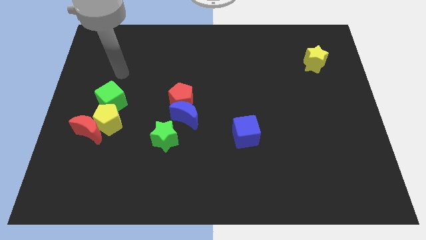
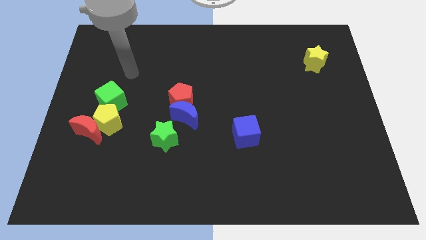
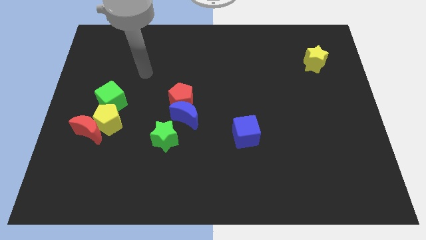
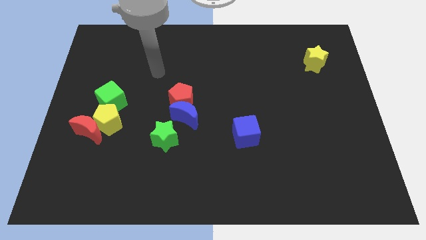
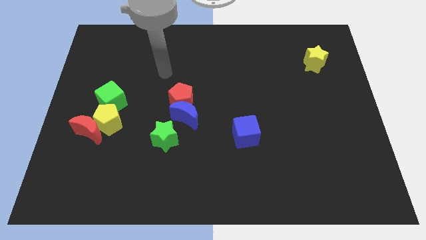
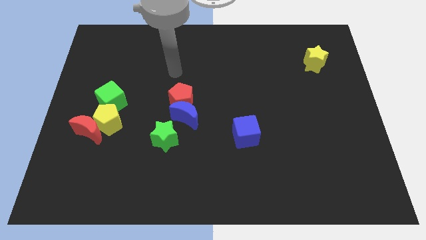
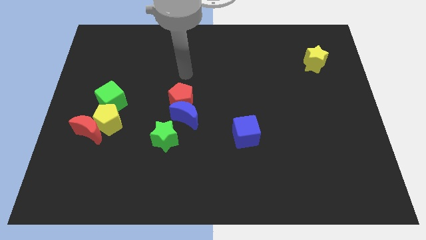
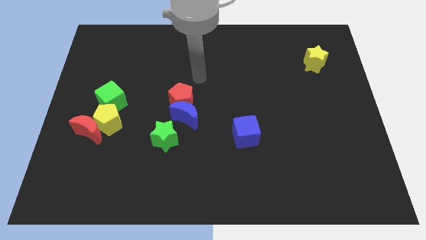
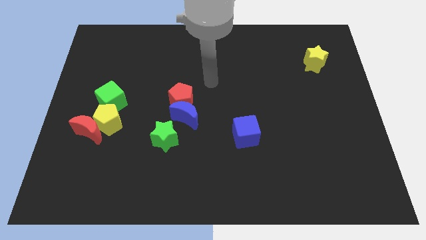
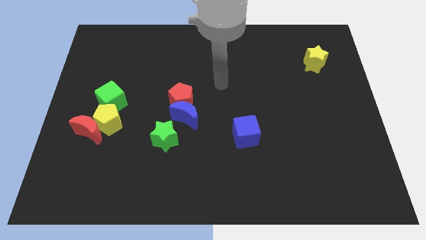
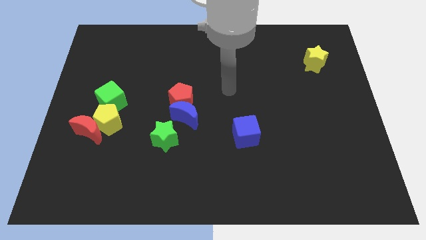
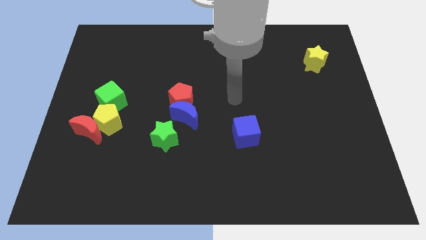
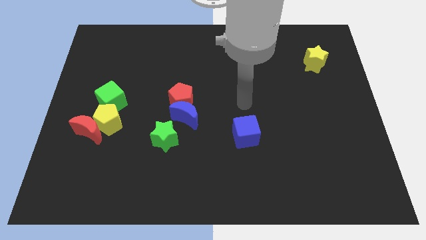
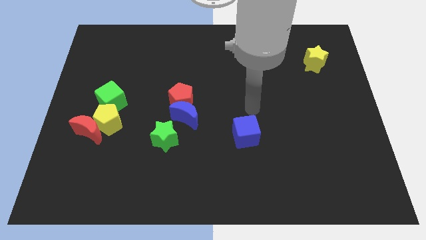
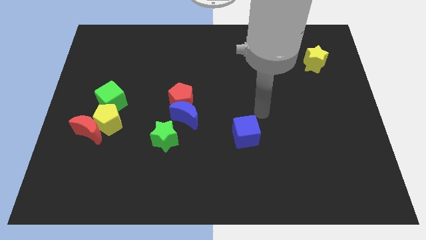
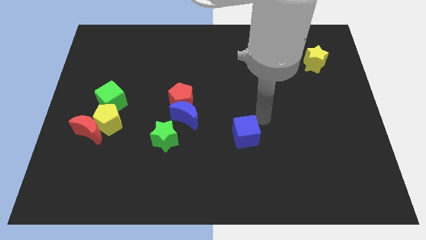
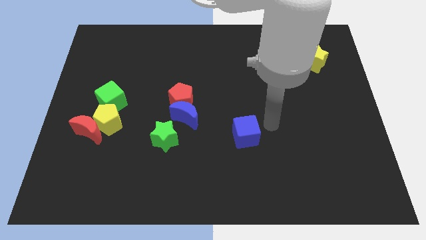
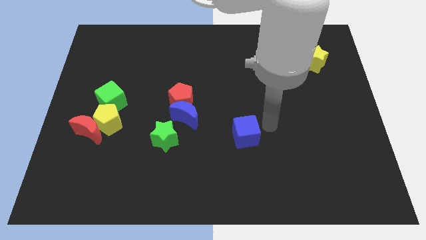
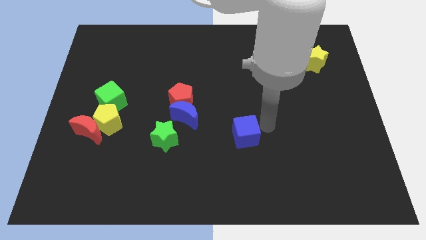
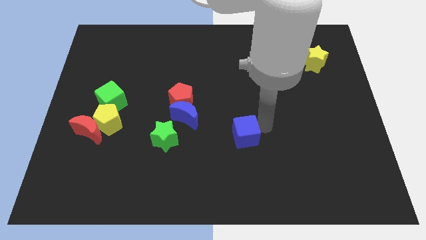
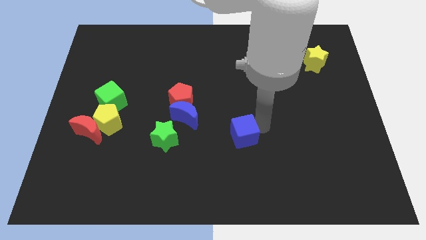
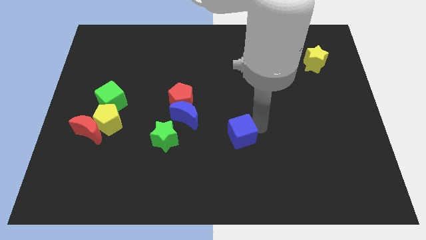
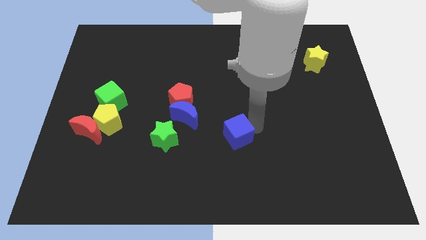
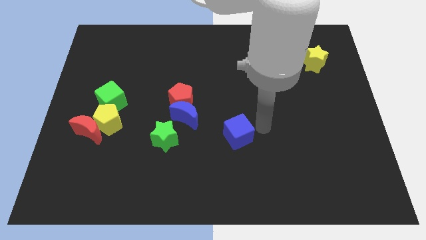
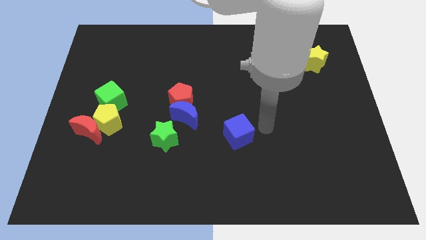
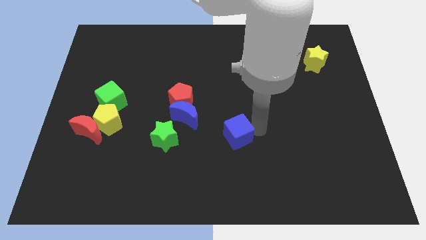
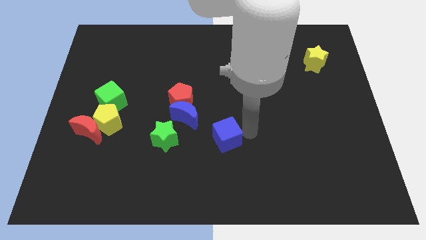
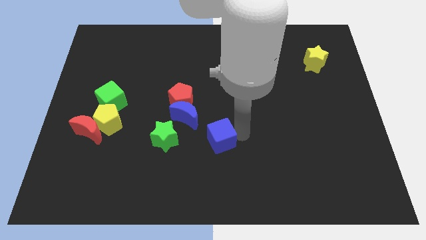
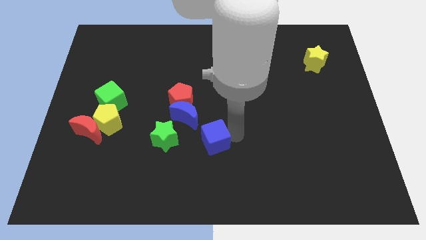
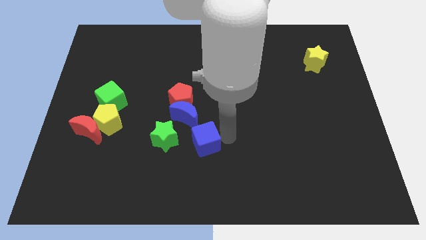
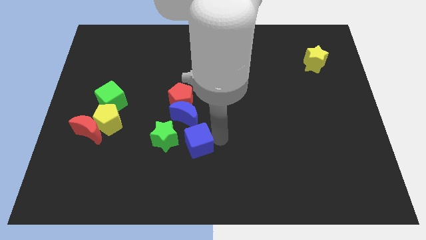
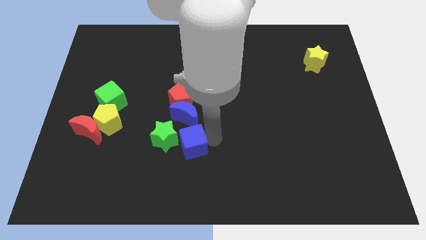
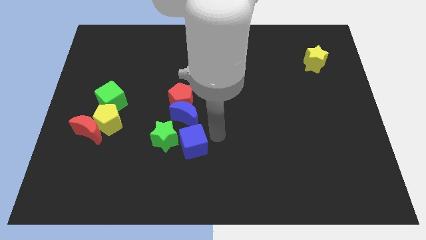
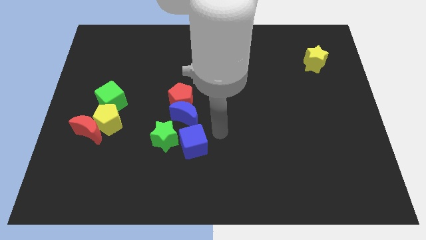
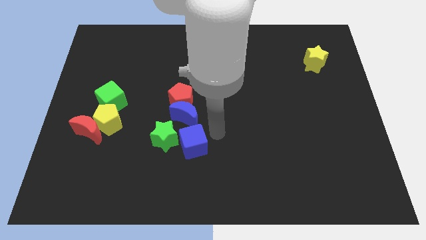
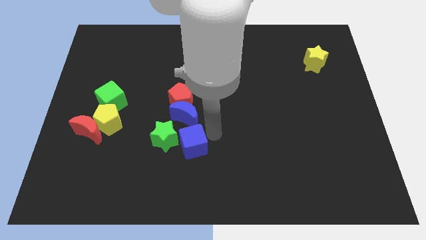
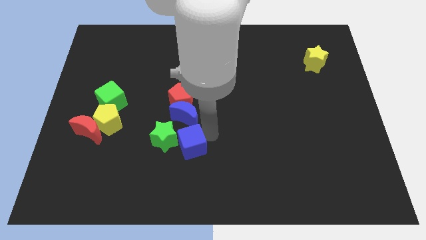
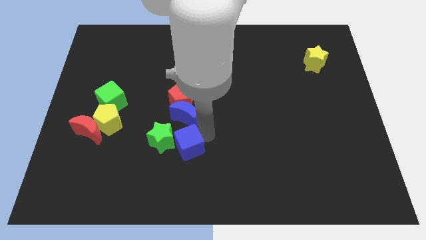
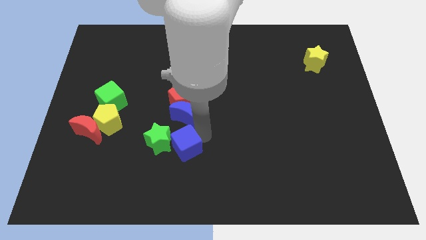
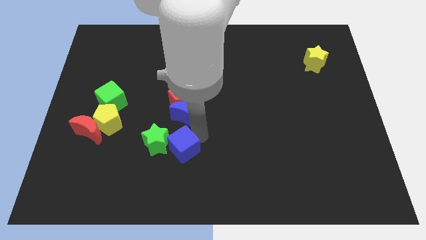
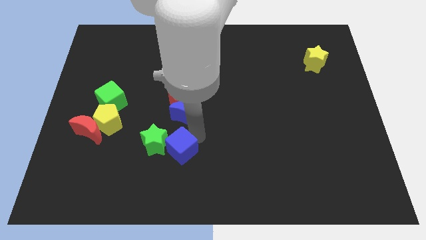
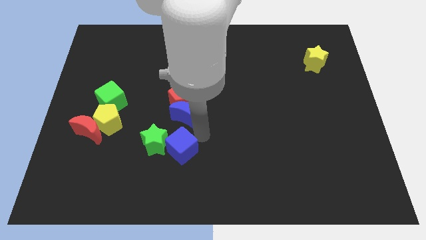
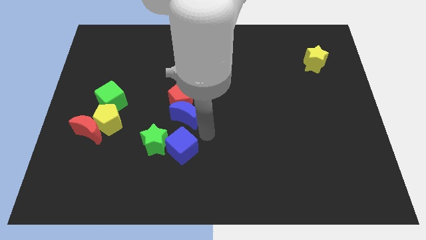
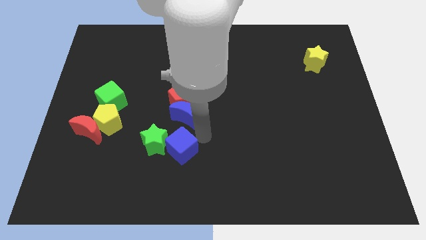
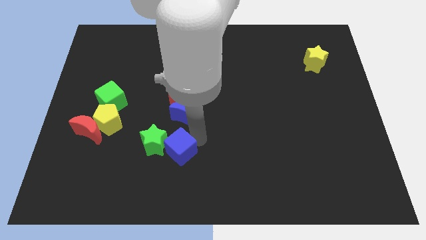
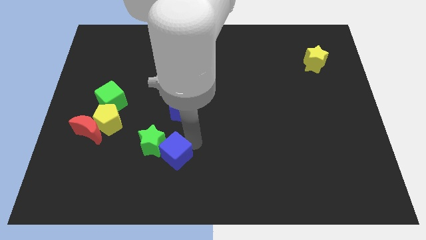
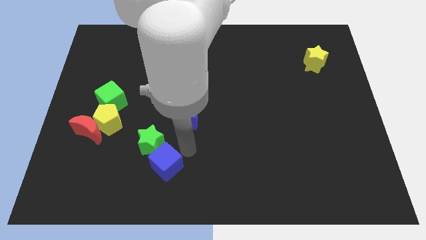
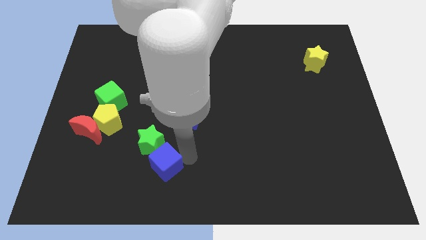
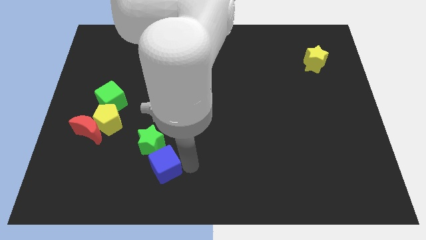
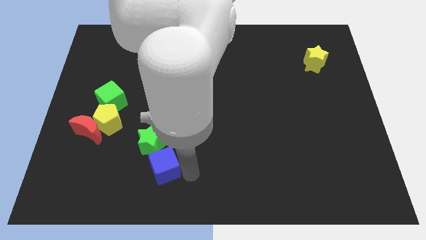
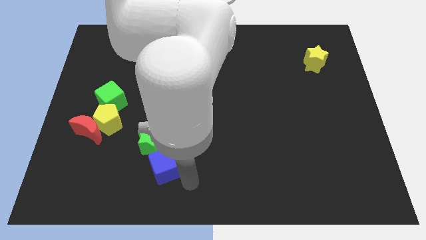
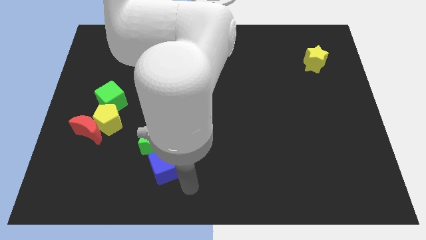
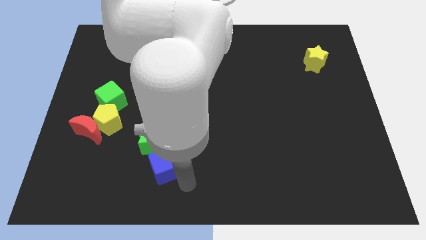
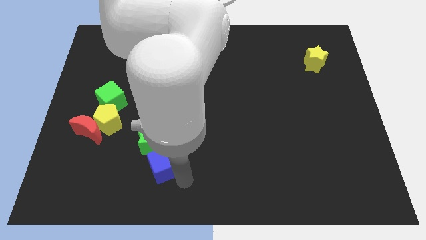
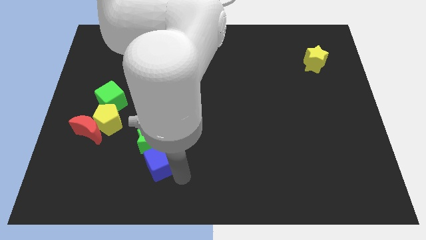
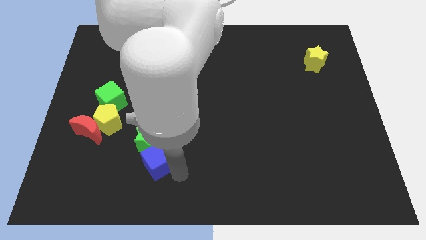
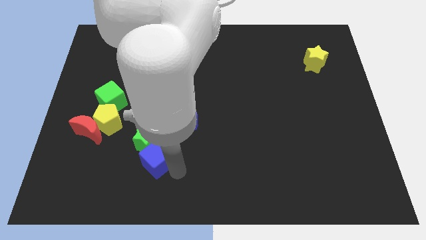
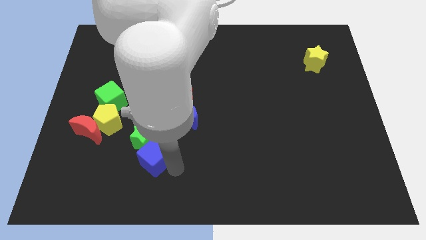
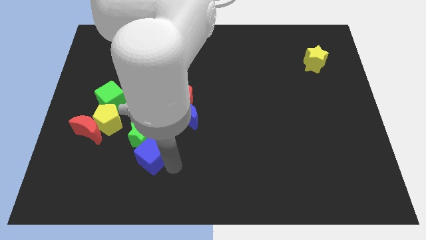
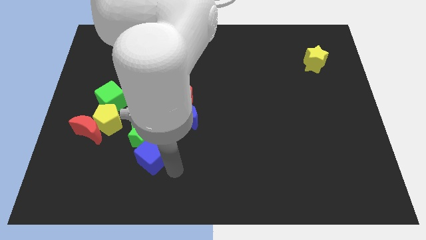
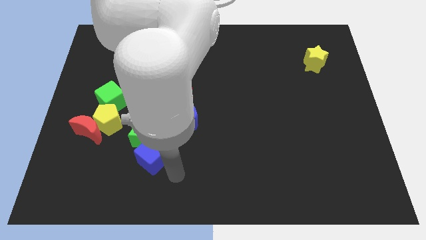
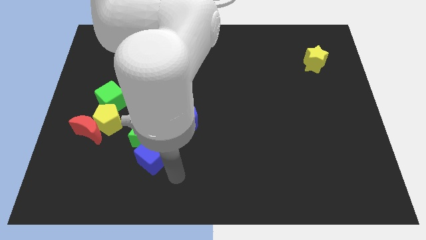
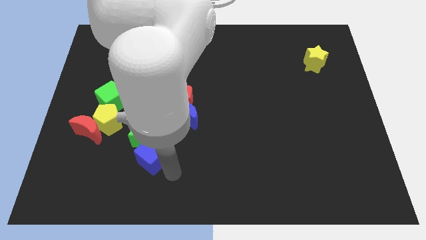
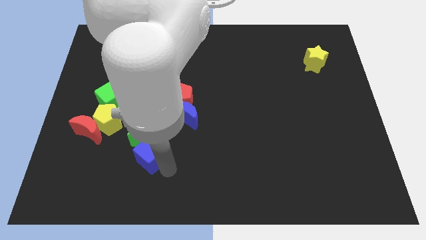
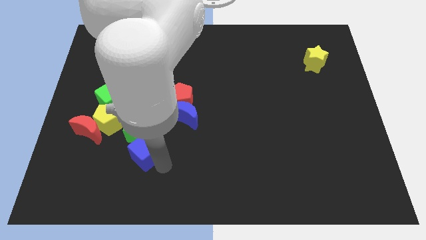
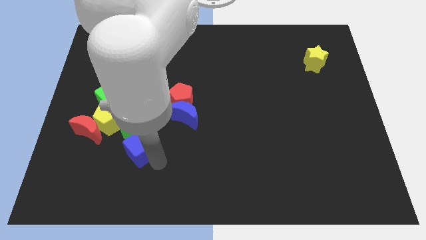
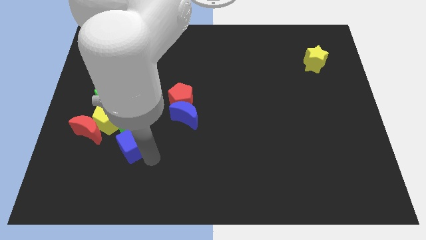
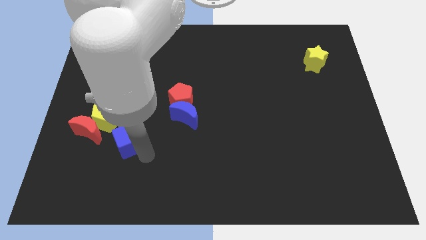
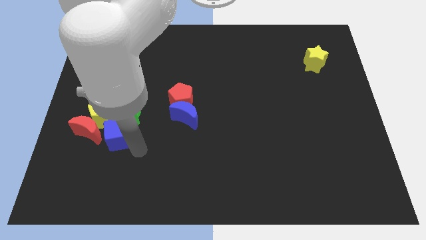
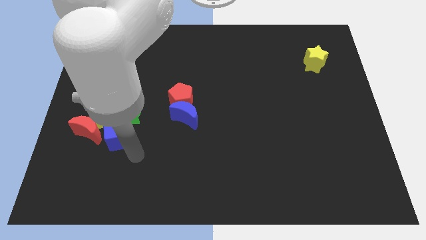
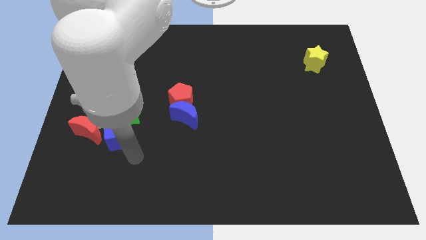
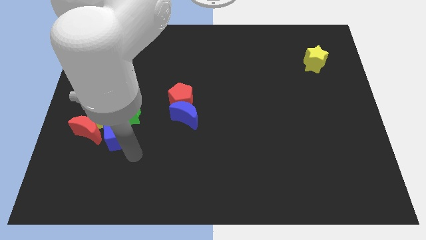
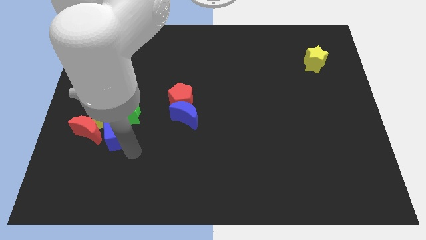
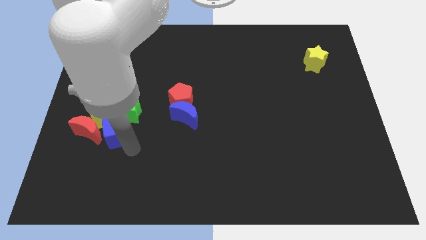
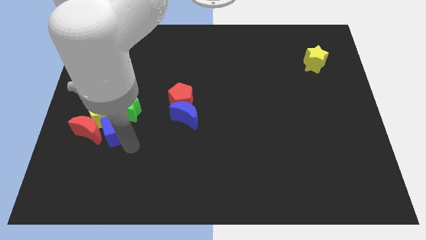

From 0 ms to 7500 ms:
put the blue cube to the yellow pentagon
